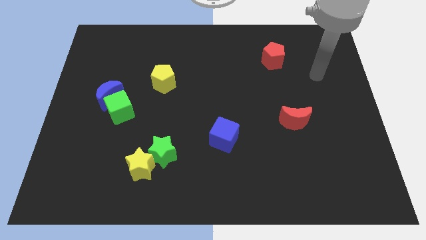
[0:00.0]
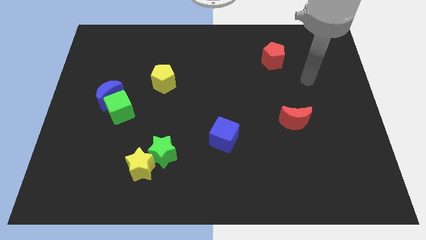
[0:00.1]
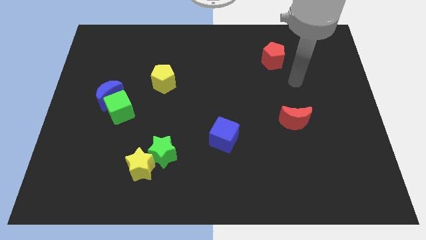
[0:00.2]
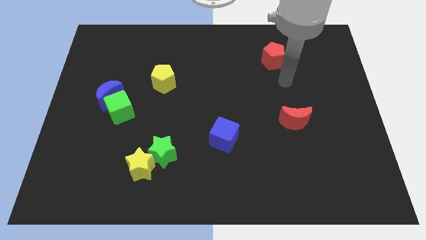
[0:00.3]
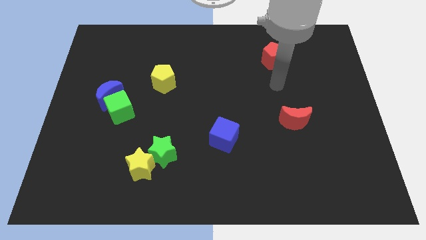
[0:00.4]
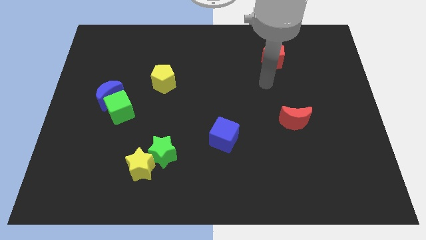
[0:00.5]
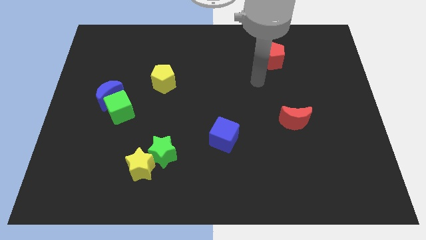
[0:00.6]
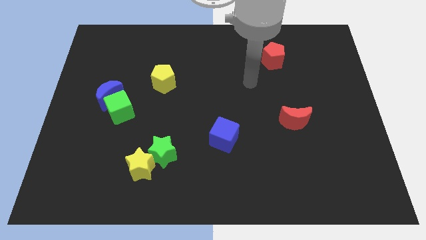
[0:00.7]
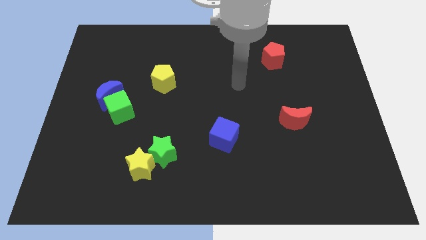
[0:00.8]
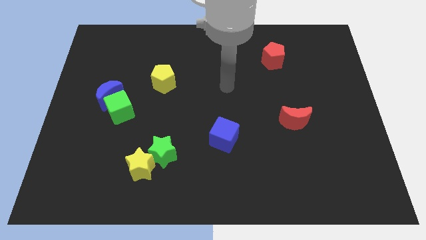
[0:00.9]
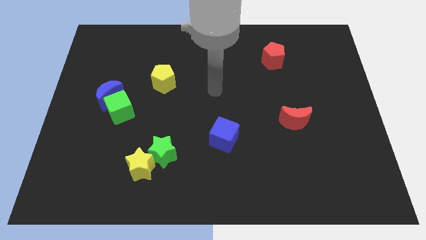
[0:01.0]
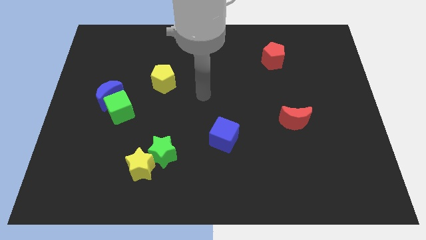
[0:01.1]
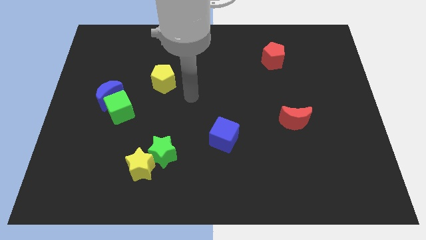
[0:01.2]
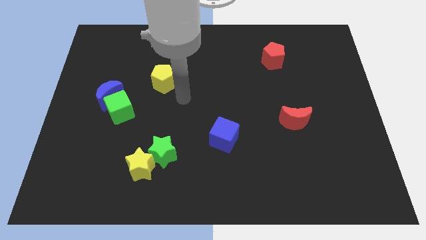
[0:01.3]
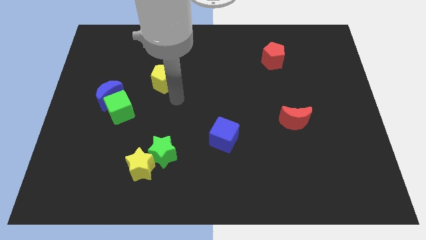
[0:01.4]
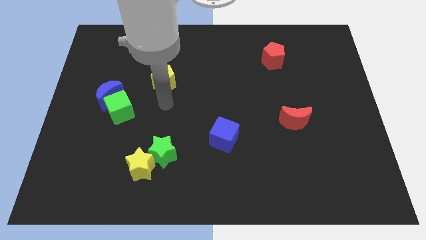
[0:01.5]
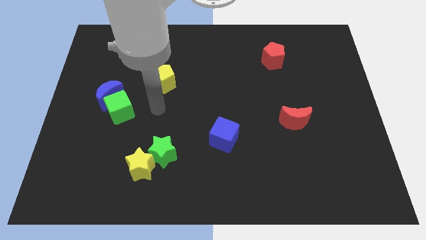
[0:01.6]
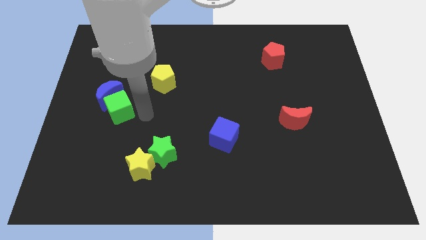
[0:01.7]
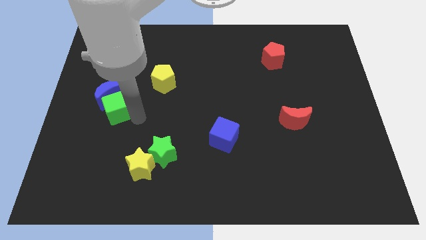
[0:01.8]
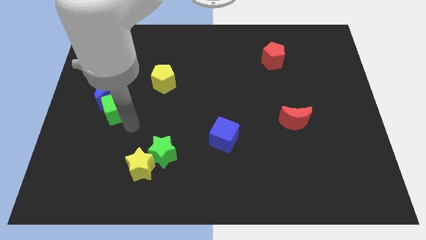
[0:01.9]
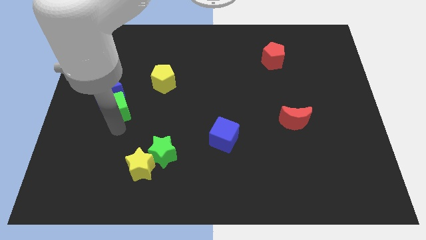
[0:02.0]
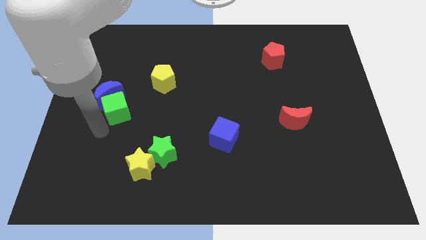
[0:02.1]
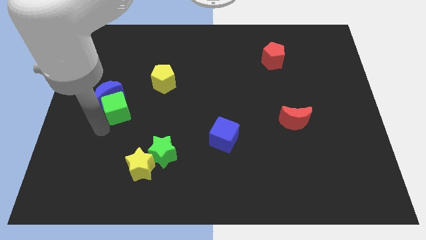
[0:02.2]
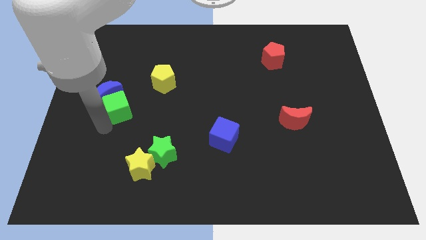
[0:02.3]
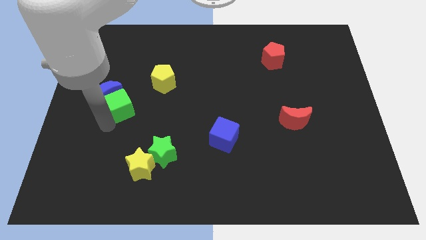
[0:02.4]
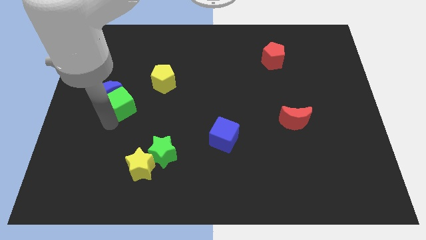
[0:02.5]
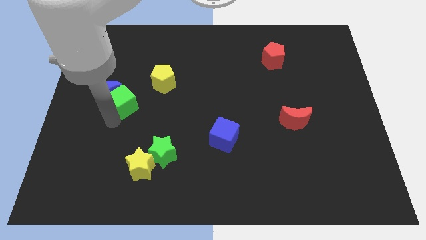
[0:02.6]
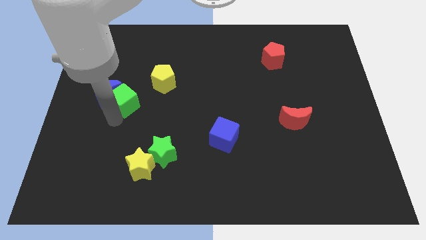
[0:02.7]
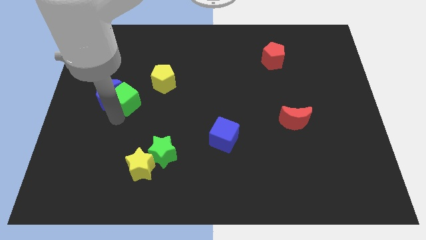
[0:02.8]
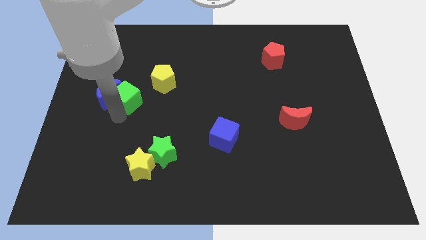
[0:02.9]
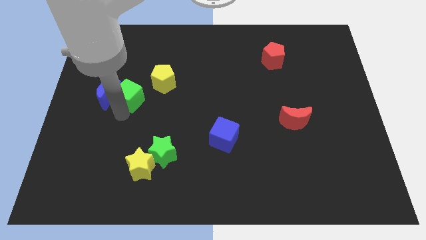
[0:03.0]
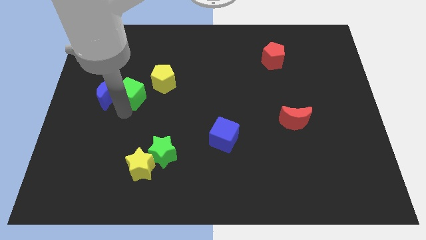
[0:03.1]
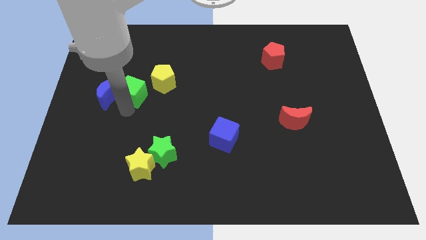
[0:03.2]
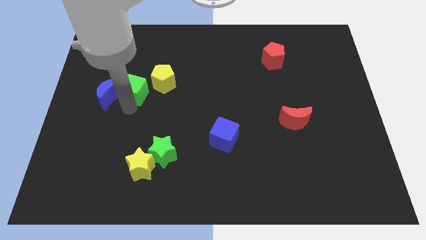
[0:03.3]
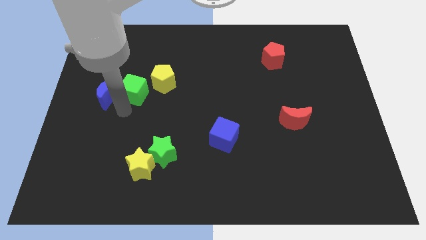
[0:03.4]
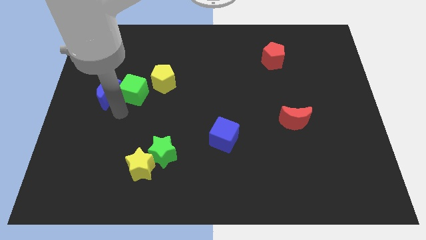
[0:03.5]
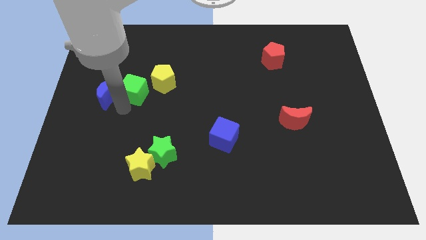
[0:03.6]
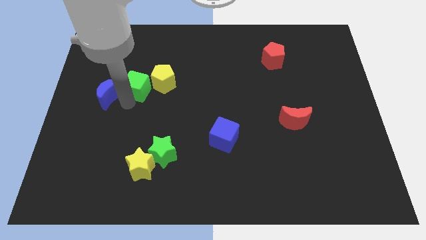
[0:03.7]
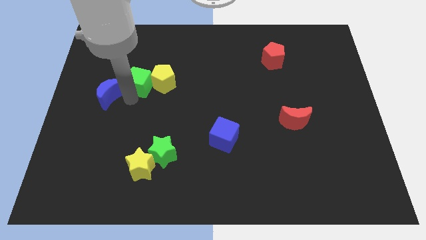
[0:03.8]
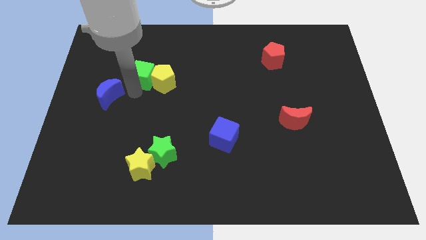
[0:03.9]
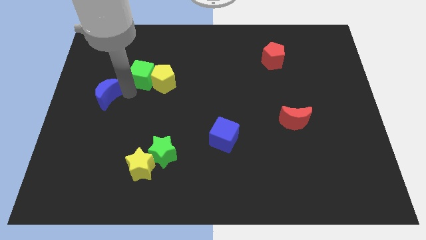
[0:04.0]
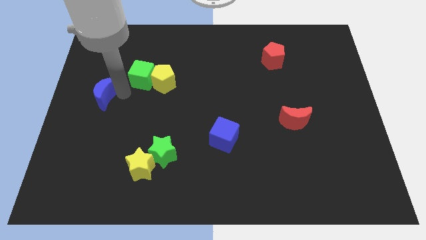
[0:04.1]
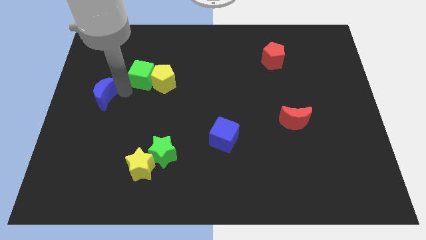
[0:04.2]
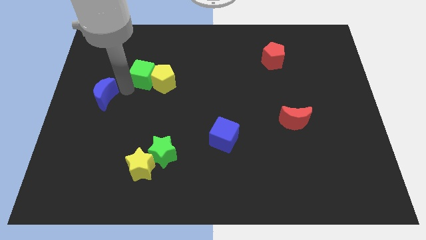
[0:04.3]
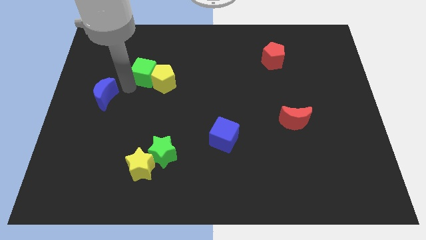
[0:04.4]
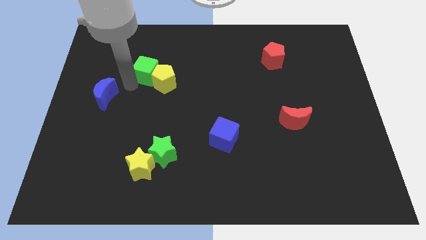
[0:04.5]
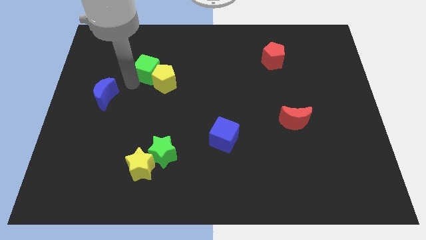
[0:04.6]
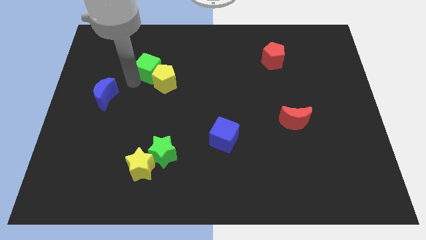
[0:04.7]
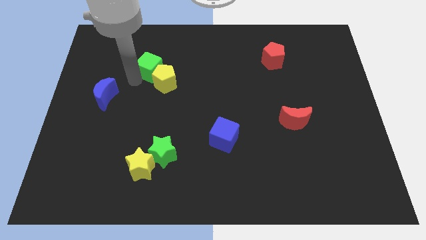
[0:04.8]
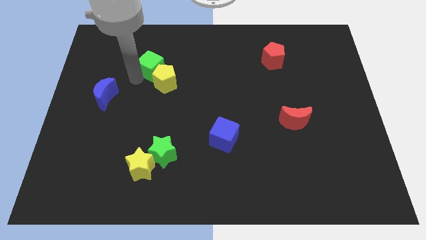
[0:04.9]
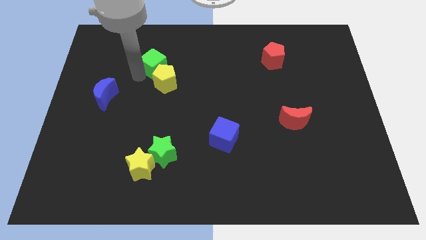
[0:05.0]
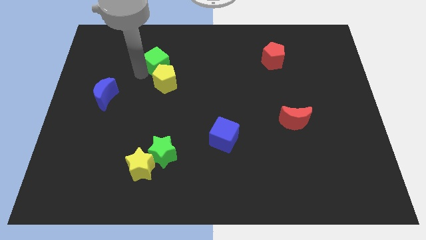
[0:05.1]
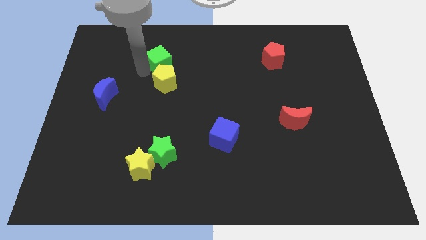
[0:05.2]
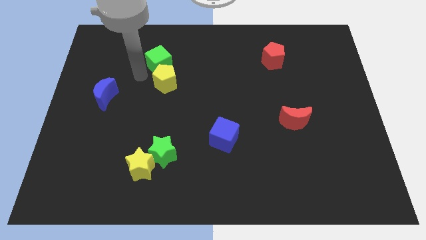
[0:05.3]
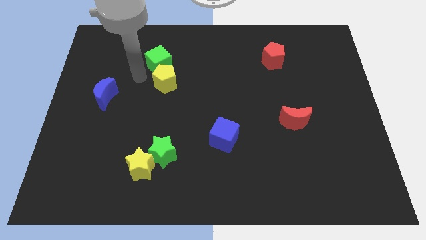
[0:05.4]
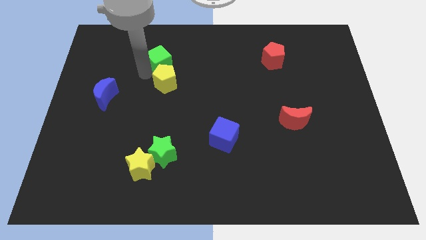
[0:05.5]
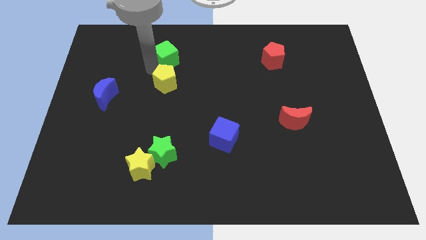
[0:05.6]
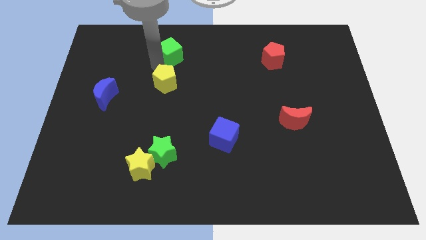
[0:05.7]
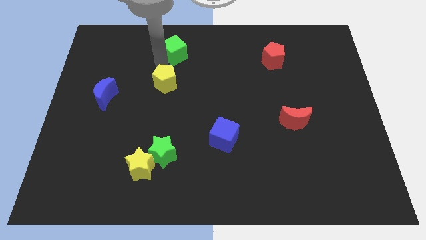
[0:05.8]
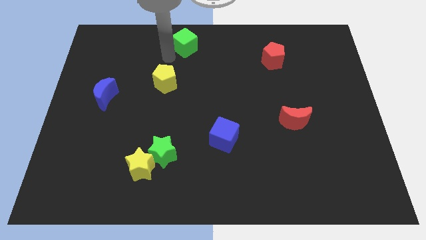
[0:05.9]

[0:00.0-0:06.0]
slide the green cube to the top

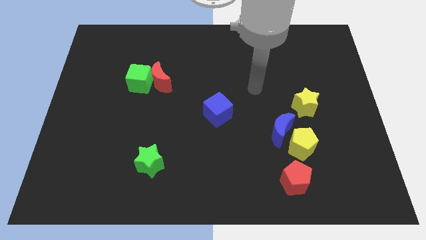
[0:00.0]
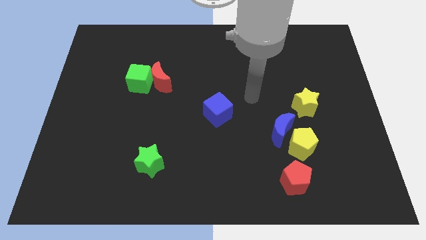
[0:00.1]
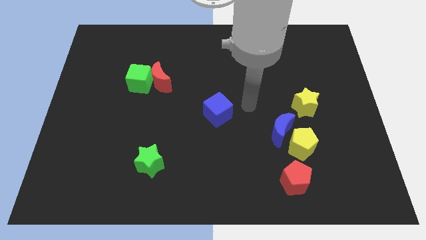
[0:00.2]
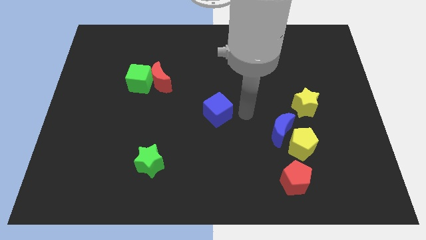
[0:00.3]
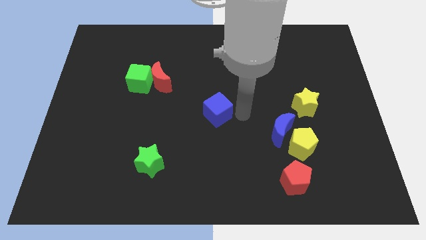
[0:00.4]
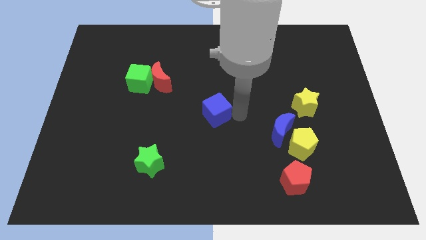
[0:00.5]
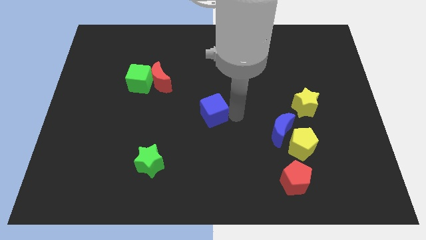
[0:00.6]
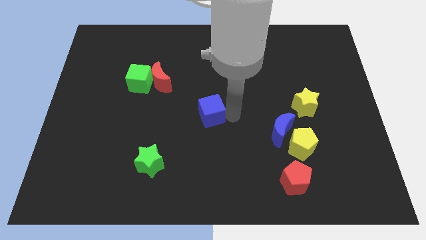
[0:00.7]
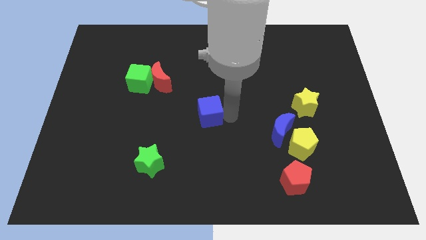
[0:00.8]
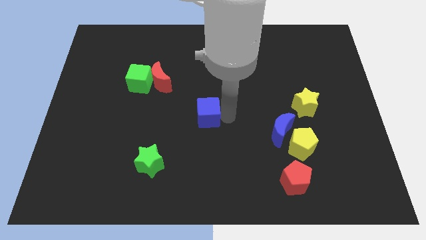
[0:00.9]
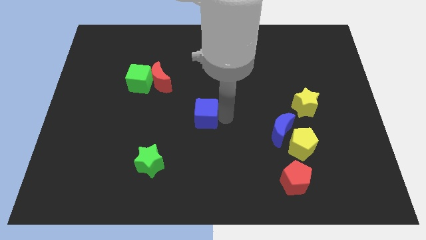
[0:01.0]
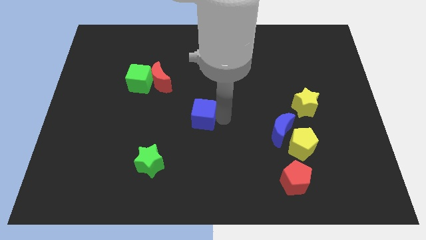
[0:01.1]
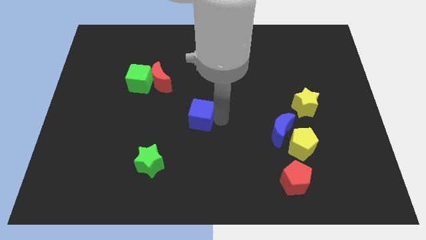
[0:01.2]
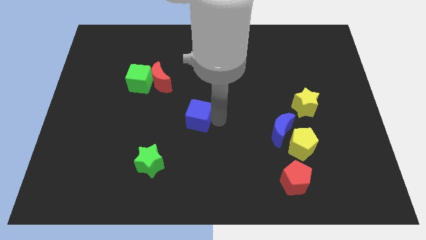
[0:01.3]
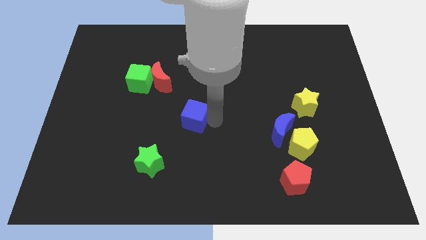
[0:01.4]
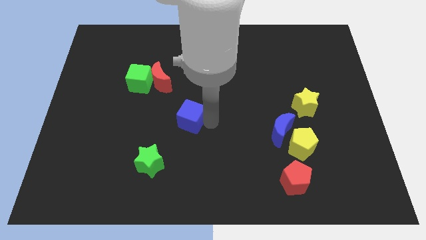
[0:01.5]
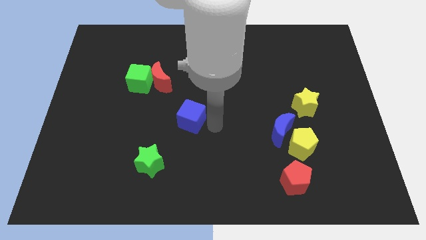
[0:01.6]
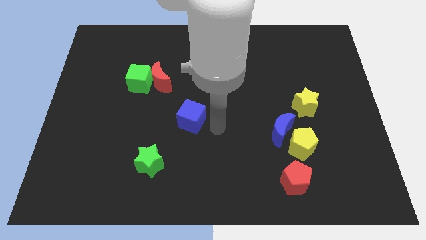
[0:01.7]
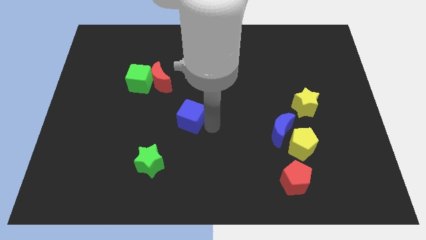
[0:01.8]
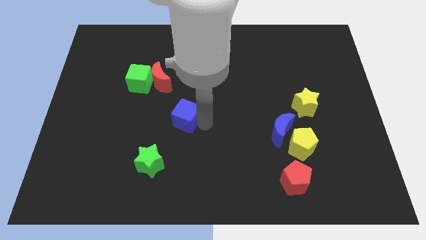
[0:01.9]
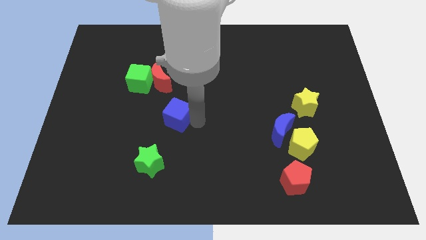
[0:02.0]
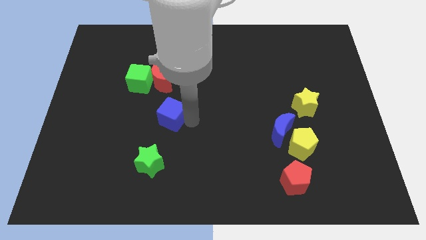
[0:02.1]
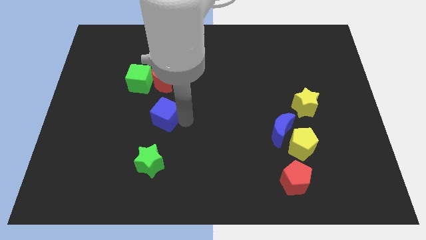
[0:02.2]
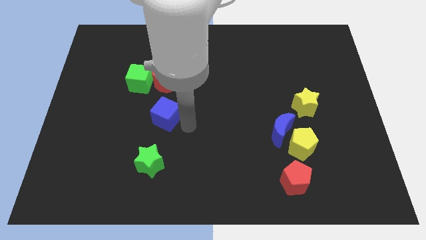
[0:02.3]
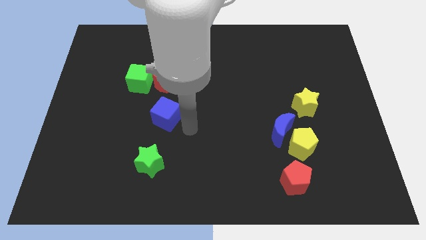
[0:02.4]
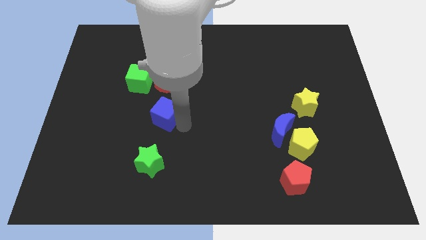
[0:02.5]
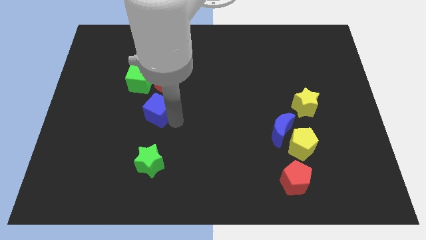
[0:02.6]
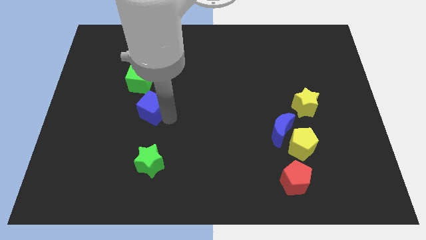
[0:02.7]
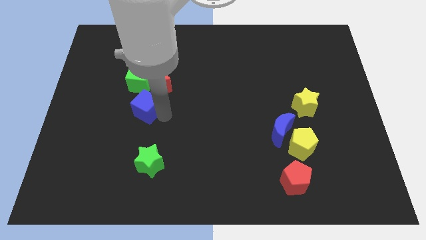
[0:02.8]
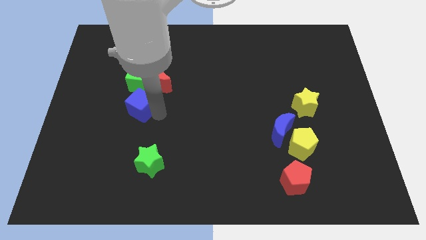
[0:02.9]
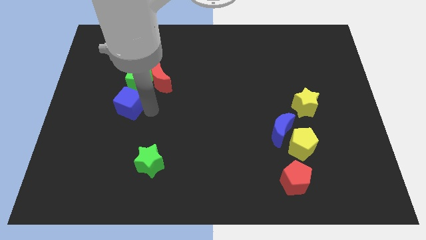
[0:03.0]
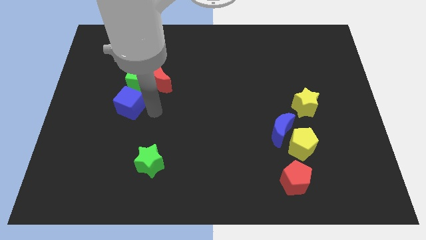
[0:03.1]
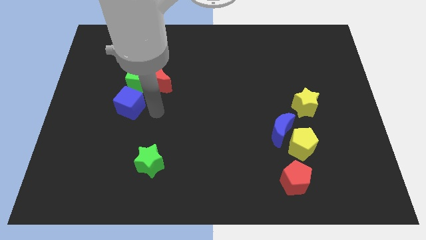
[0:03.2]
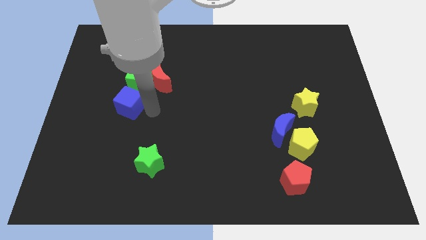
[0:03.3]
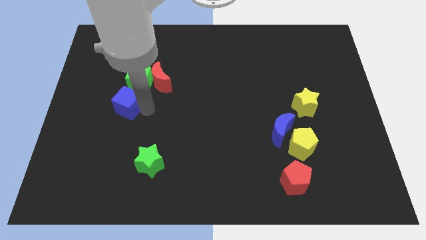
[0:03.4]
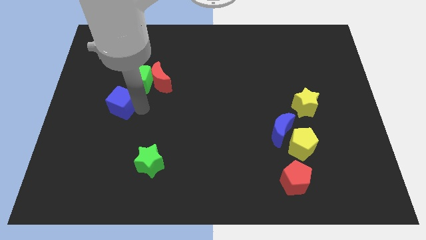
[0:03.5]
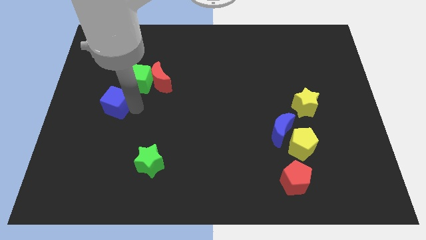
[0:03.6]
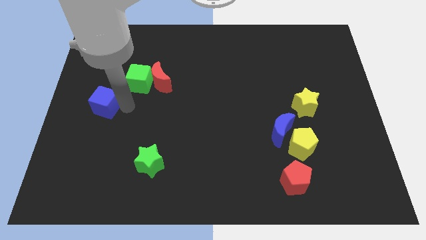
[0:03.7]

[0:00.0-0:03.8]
slide the blue cube to the left side
